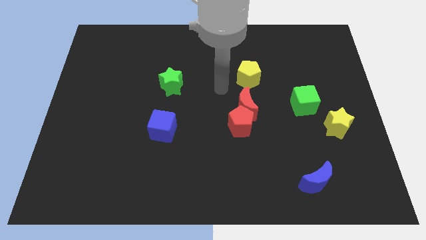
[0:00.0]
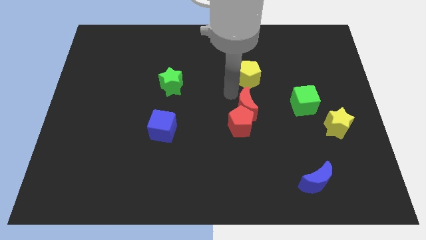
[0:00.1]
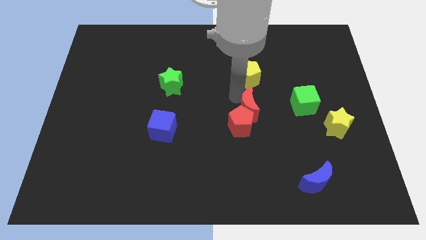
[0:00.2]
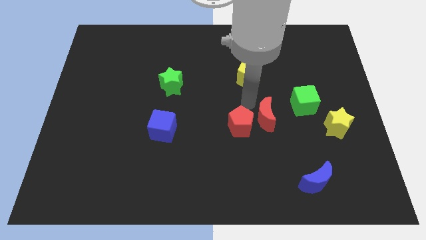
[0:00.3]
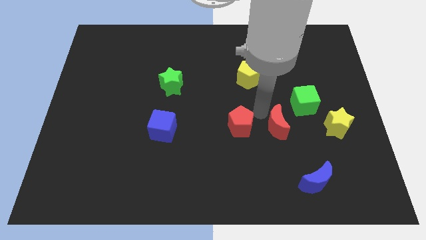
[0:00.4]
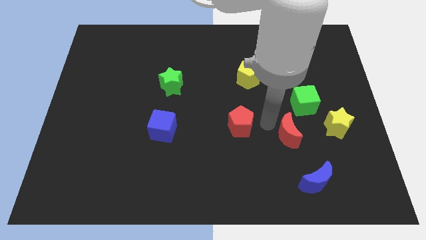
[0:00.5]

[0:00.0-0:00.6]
pull the red pentagon apart from the red moon

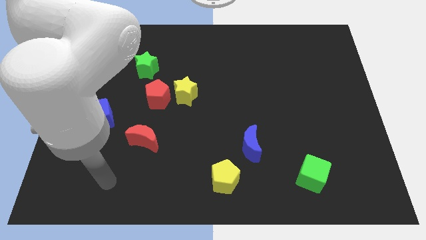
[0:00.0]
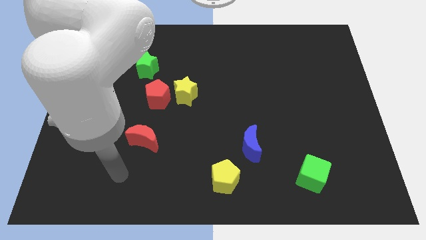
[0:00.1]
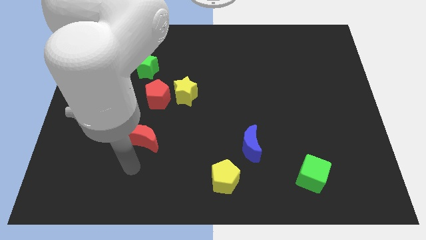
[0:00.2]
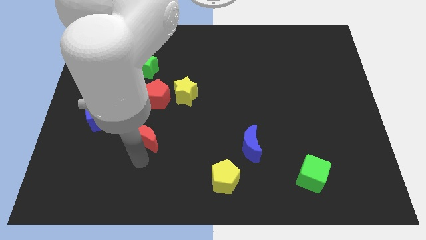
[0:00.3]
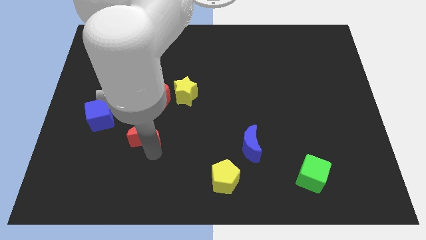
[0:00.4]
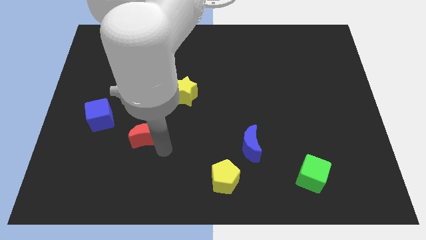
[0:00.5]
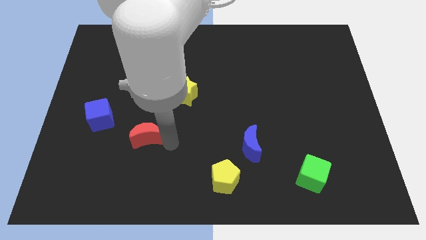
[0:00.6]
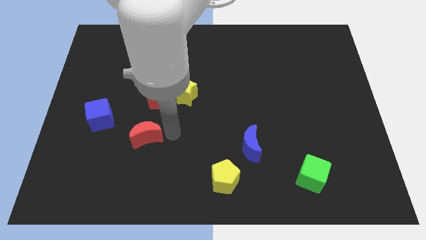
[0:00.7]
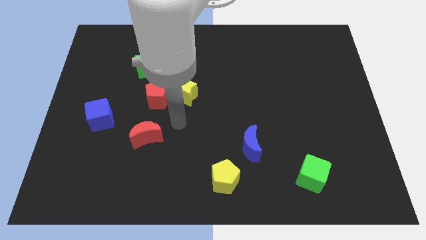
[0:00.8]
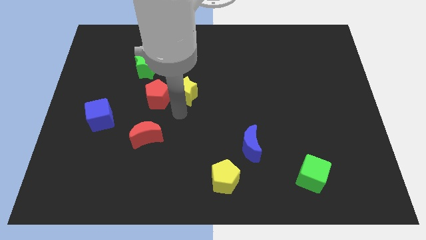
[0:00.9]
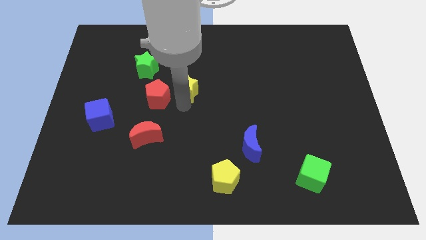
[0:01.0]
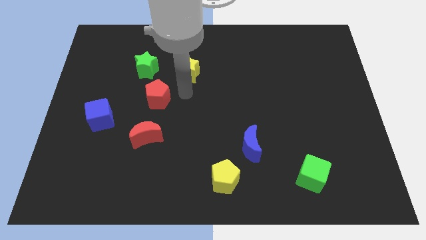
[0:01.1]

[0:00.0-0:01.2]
separate the red pentagon from the yellow star

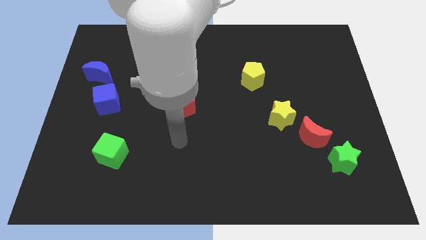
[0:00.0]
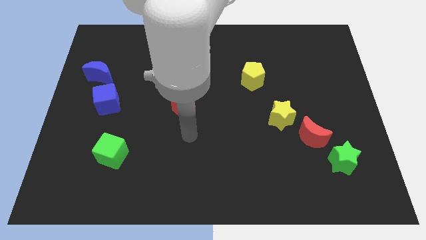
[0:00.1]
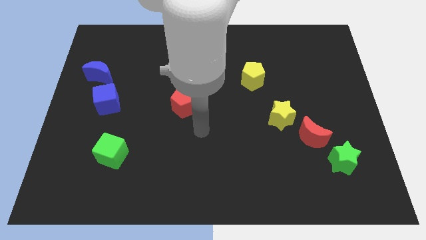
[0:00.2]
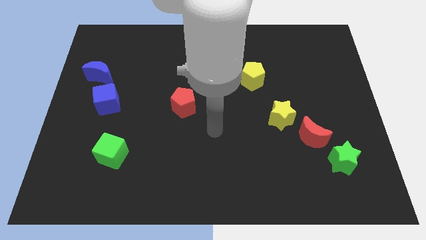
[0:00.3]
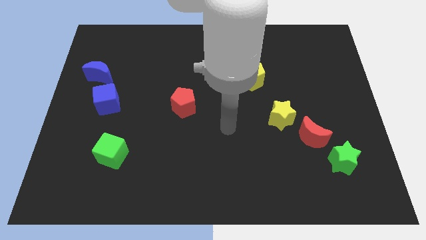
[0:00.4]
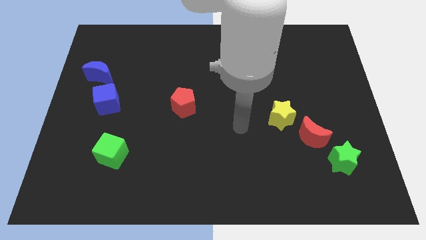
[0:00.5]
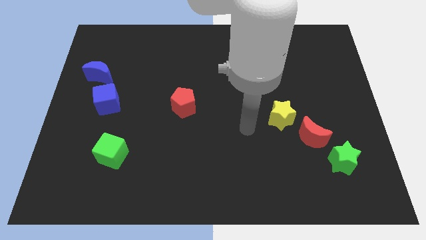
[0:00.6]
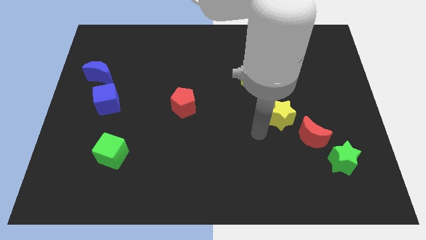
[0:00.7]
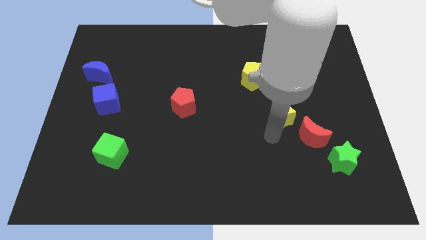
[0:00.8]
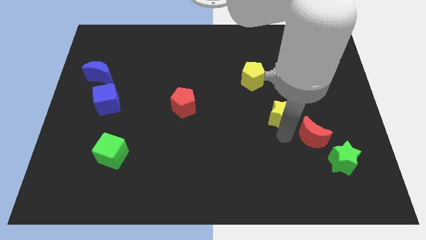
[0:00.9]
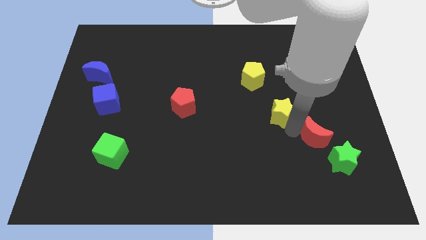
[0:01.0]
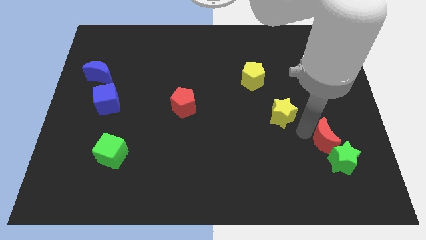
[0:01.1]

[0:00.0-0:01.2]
move the yellow star away from the red moon

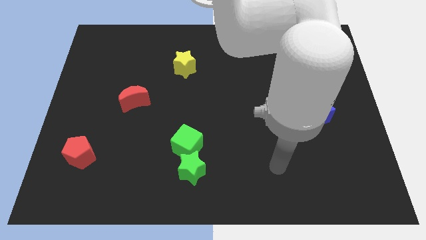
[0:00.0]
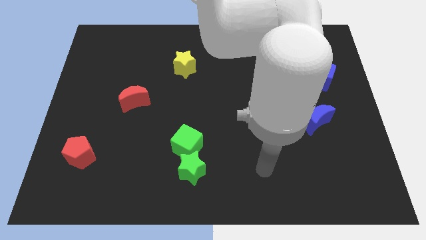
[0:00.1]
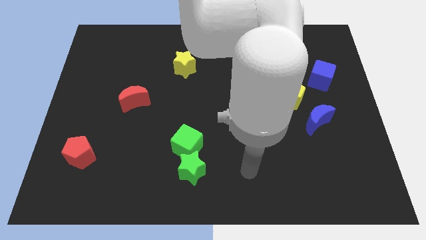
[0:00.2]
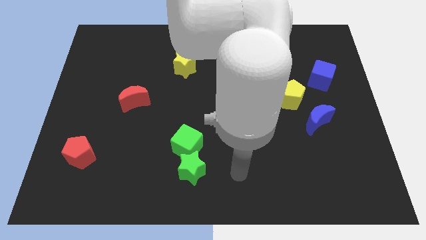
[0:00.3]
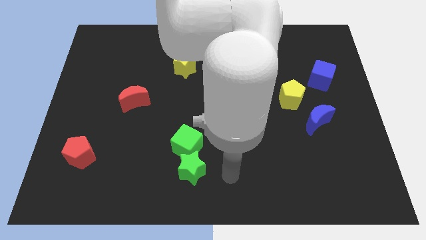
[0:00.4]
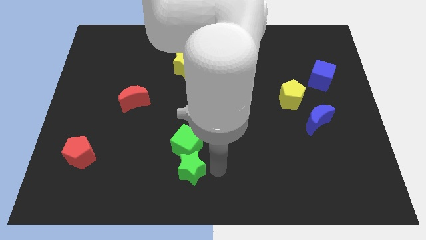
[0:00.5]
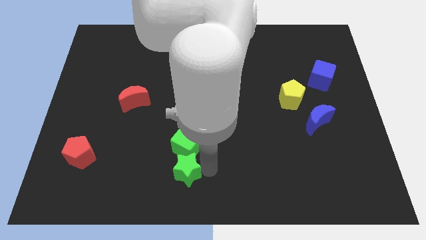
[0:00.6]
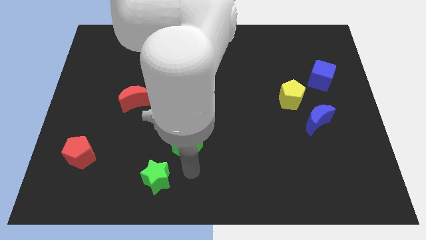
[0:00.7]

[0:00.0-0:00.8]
pull the green cube apart from the green star

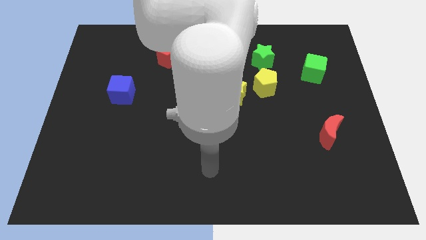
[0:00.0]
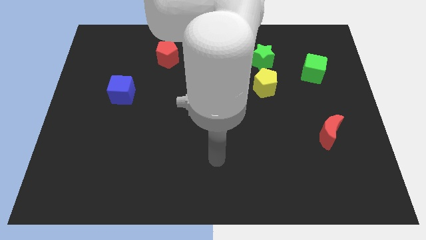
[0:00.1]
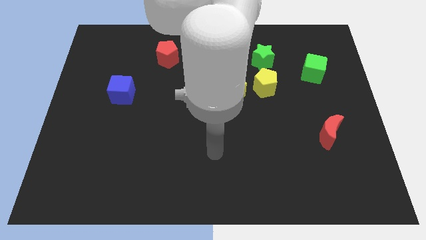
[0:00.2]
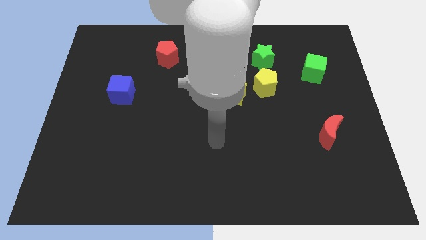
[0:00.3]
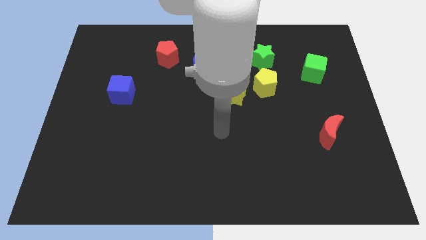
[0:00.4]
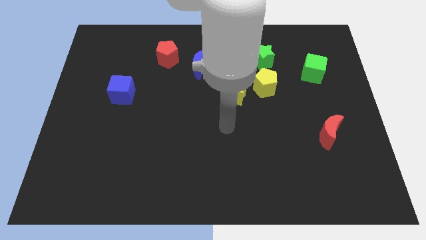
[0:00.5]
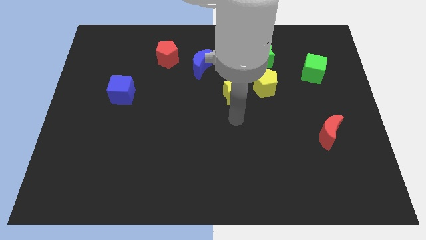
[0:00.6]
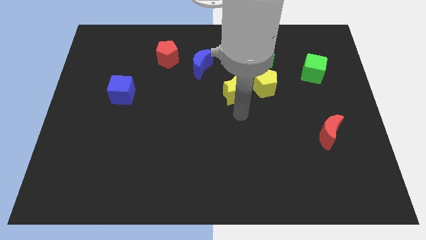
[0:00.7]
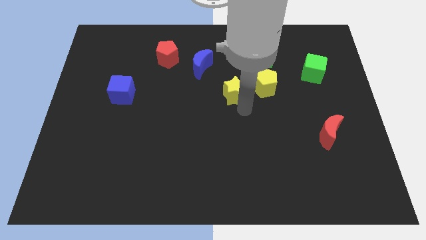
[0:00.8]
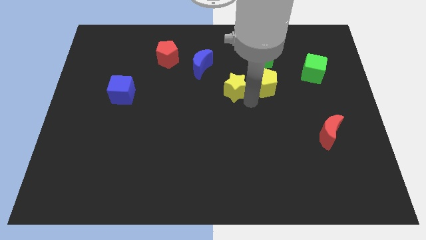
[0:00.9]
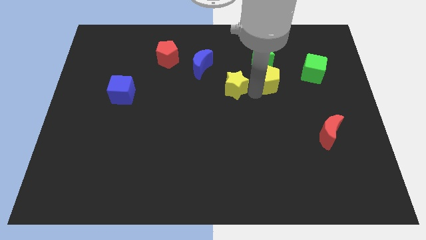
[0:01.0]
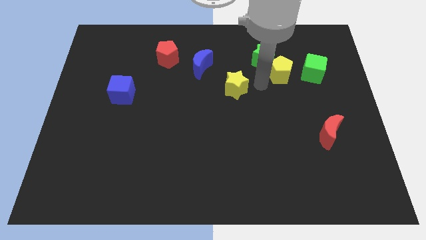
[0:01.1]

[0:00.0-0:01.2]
pull the yellow star apart from the yellow pentagon

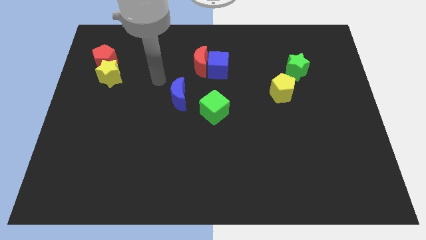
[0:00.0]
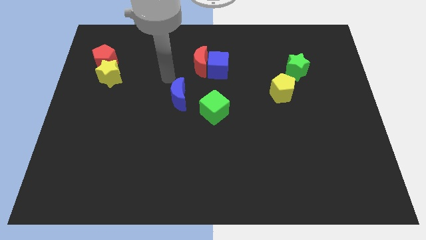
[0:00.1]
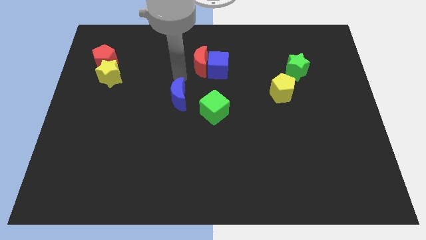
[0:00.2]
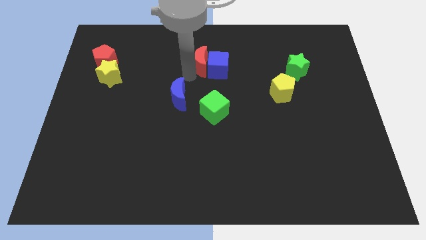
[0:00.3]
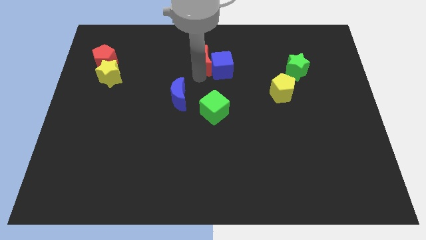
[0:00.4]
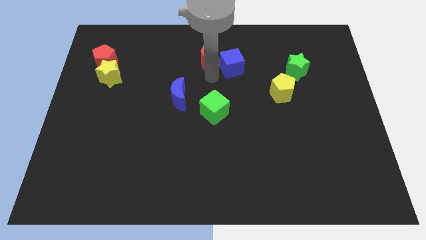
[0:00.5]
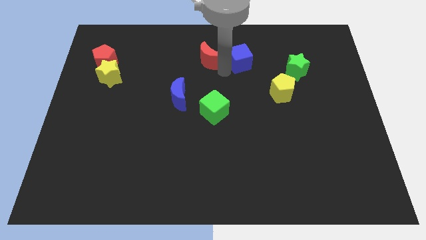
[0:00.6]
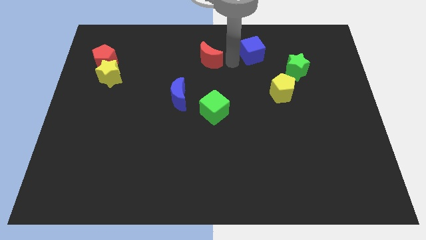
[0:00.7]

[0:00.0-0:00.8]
move the red moon away from the blue cube

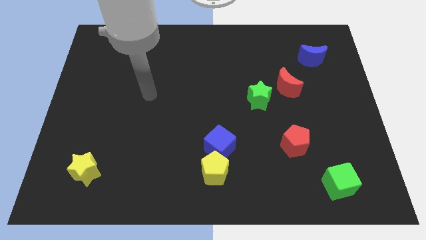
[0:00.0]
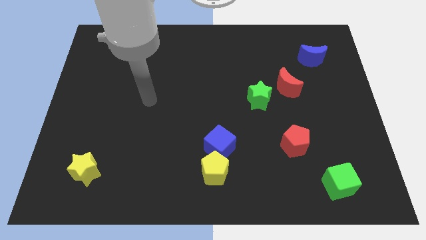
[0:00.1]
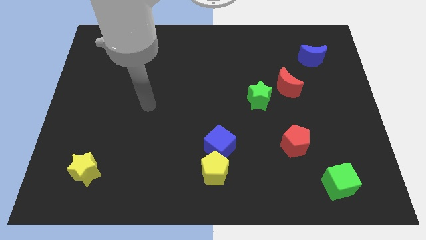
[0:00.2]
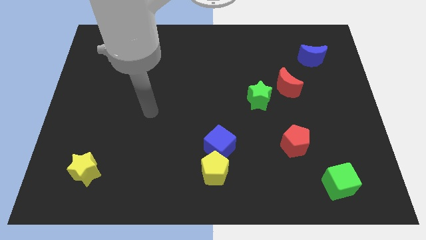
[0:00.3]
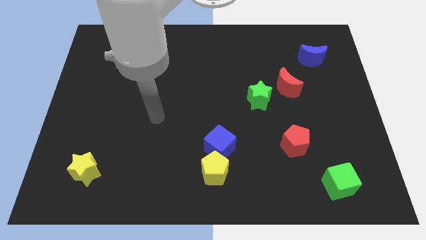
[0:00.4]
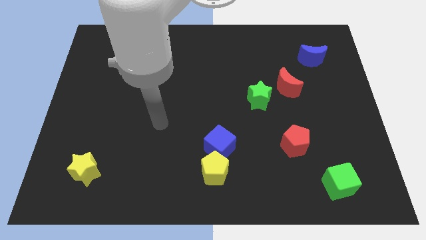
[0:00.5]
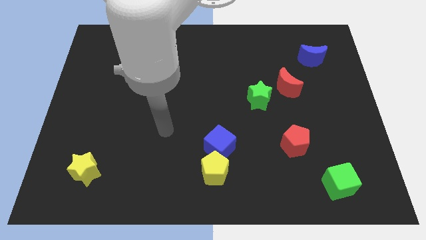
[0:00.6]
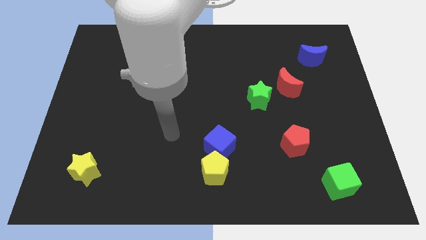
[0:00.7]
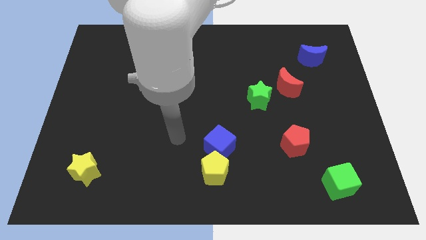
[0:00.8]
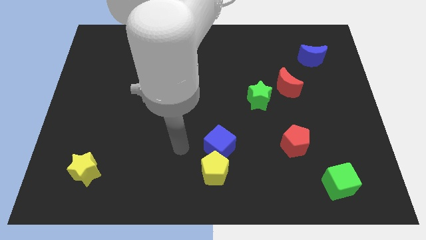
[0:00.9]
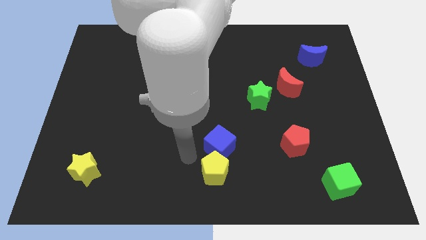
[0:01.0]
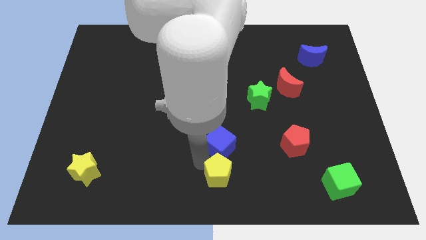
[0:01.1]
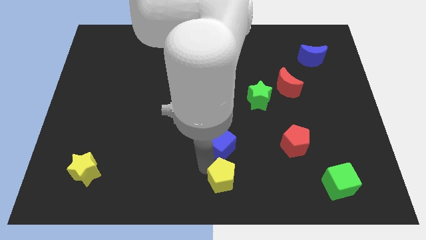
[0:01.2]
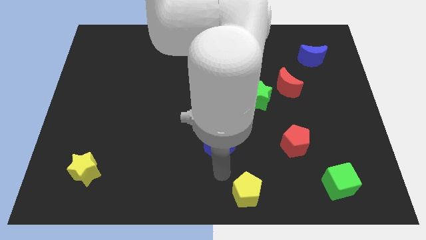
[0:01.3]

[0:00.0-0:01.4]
pull the blue cube apart from the yellow pentagon

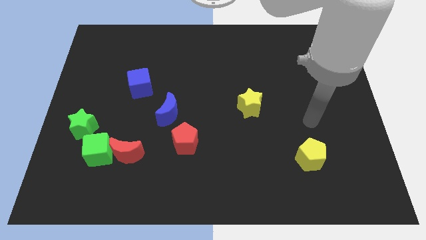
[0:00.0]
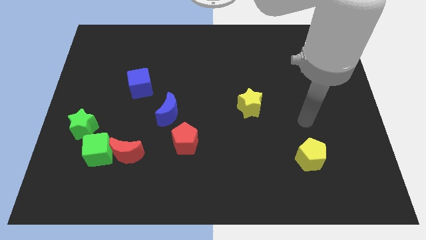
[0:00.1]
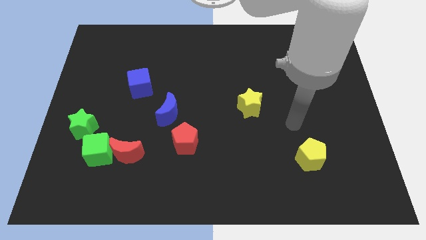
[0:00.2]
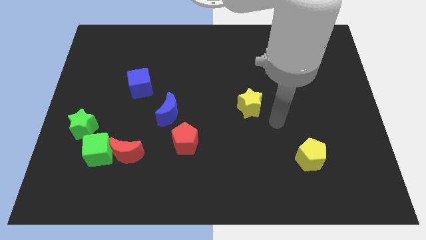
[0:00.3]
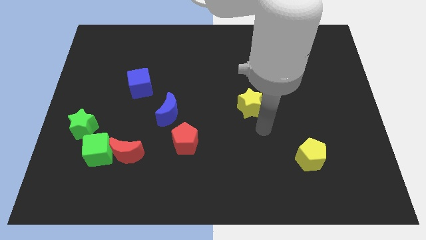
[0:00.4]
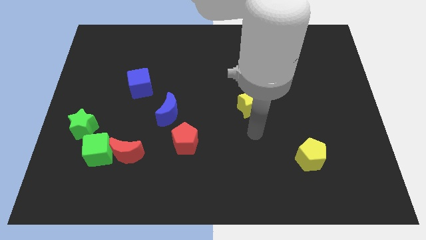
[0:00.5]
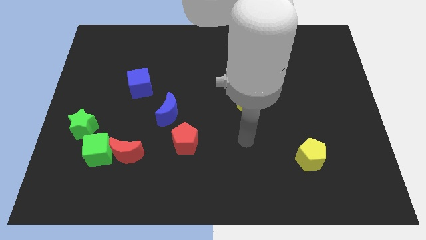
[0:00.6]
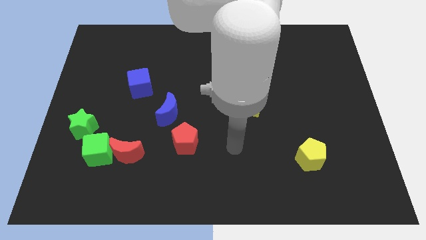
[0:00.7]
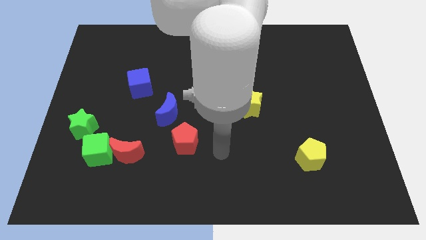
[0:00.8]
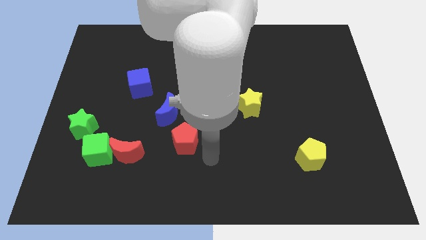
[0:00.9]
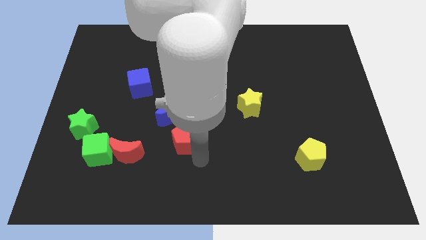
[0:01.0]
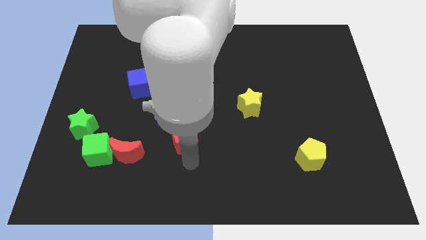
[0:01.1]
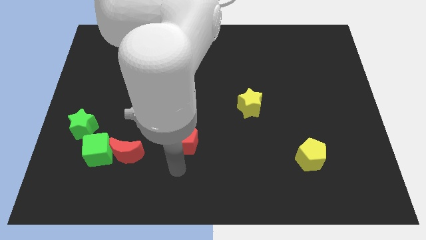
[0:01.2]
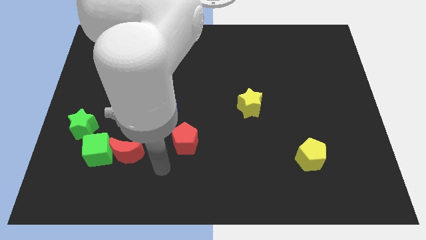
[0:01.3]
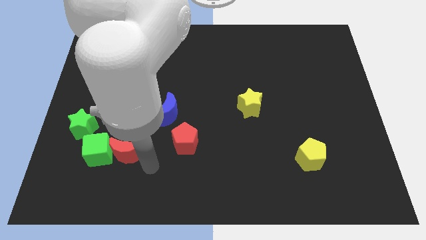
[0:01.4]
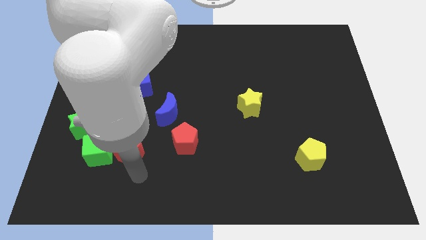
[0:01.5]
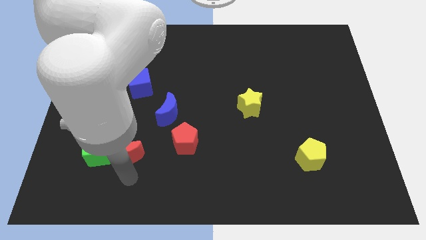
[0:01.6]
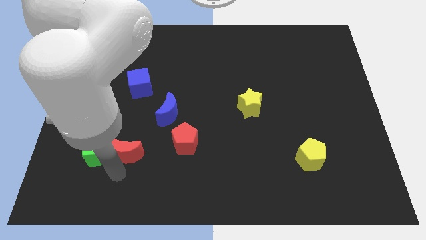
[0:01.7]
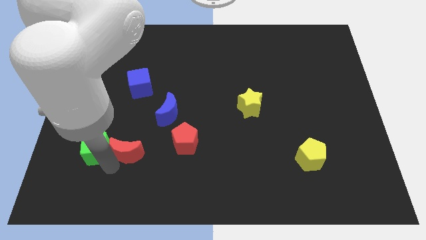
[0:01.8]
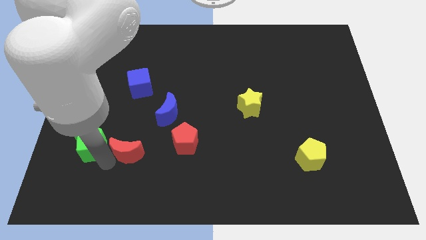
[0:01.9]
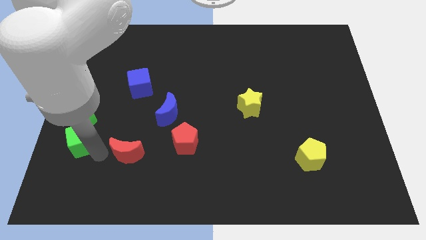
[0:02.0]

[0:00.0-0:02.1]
pull the red moon apart from the green cube

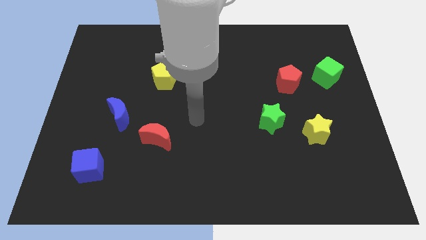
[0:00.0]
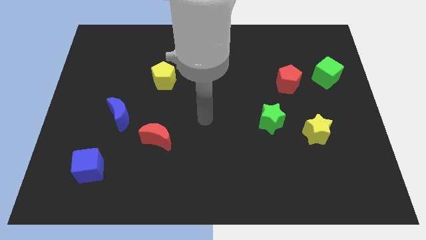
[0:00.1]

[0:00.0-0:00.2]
pull the green star apart from the yellow star
